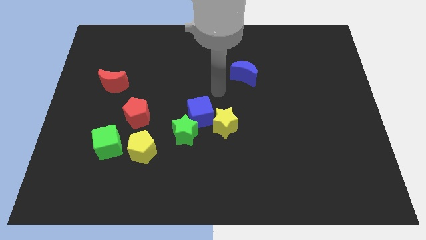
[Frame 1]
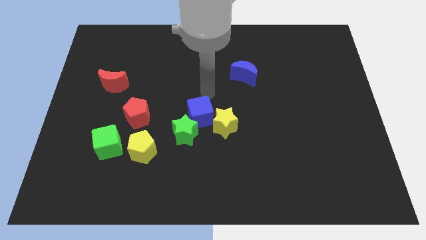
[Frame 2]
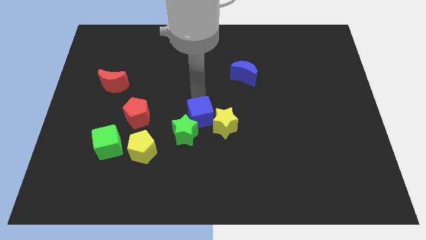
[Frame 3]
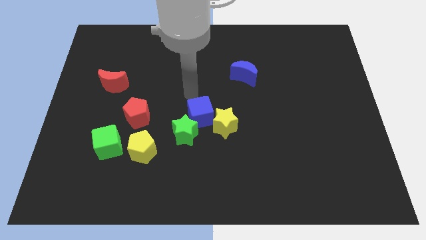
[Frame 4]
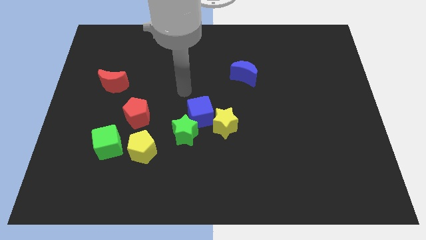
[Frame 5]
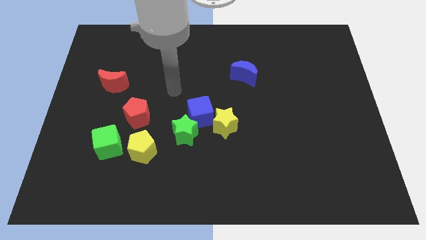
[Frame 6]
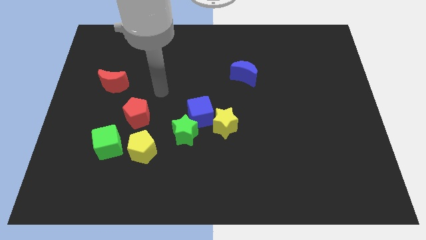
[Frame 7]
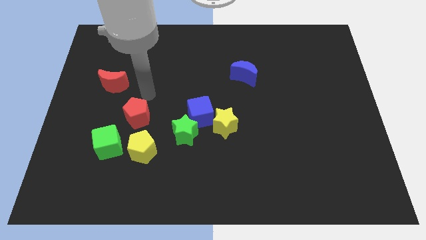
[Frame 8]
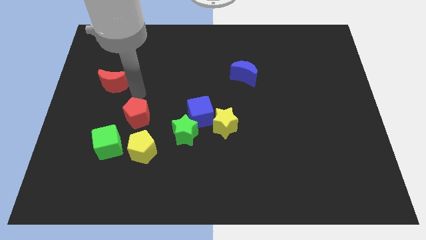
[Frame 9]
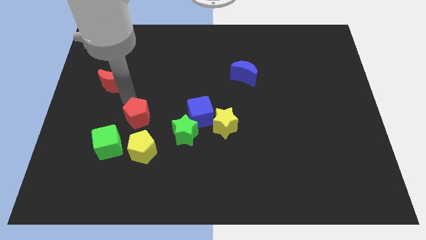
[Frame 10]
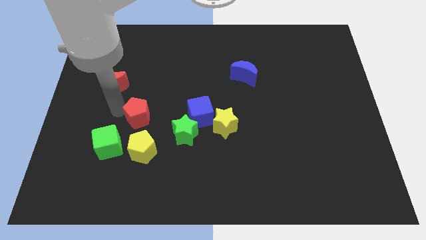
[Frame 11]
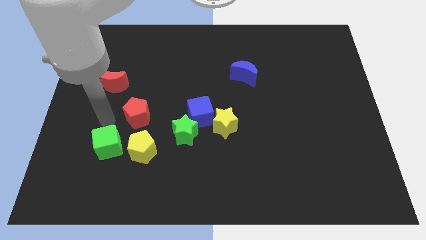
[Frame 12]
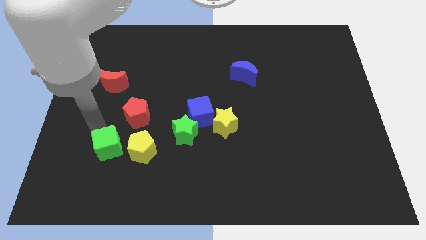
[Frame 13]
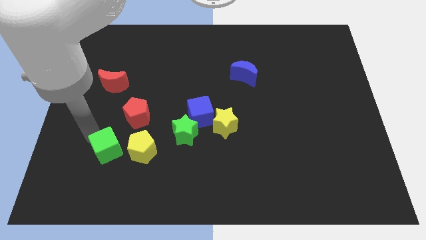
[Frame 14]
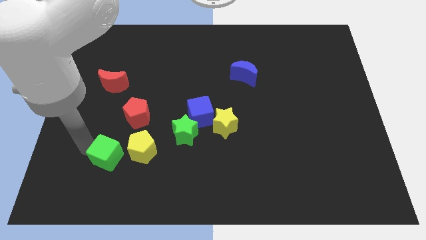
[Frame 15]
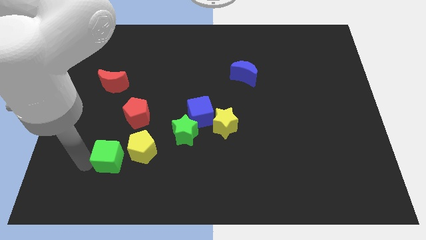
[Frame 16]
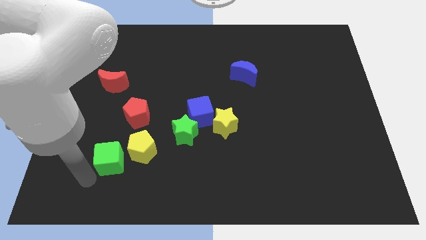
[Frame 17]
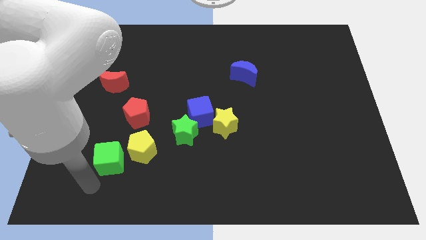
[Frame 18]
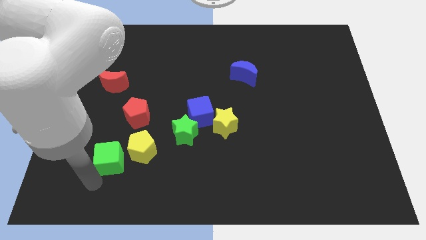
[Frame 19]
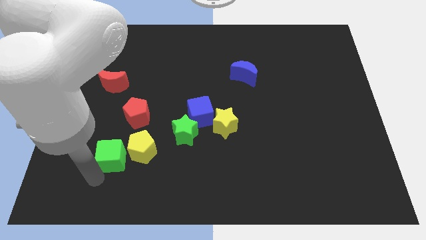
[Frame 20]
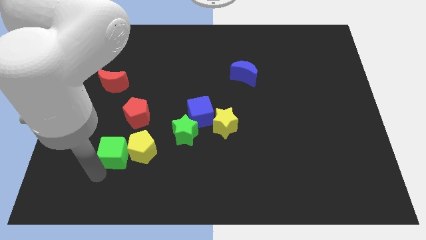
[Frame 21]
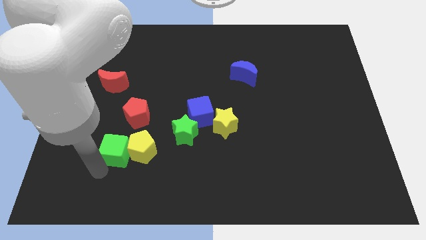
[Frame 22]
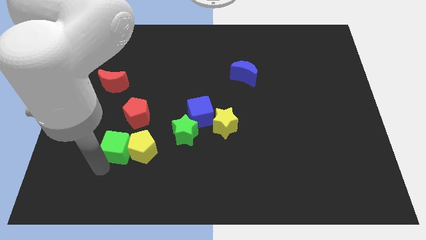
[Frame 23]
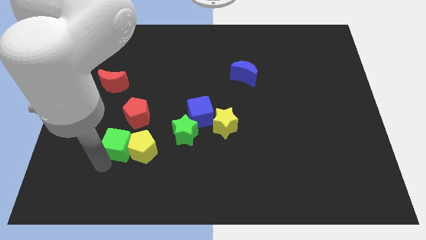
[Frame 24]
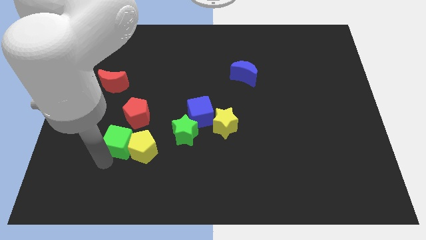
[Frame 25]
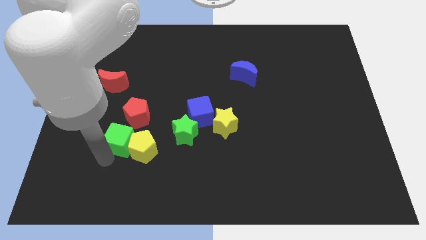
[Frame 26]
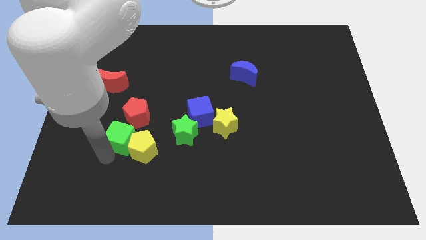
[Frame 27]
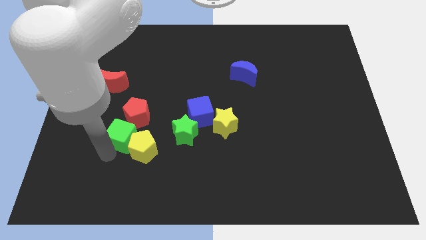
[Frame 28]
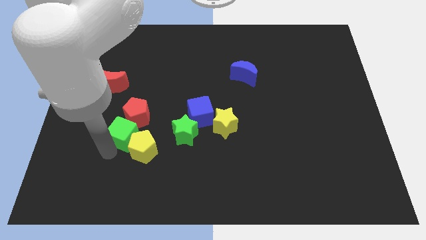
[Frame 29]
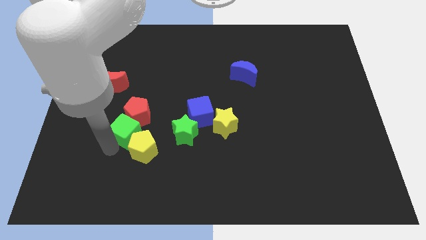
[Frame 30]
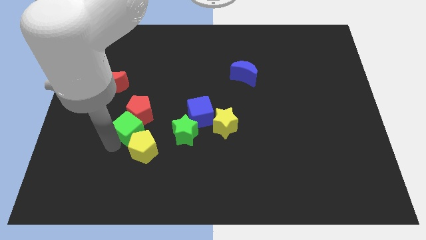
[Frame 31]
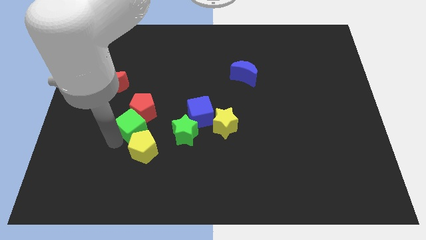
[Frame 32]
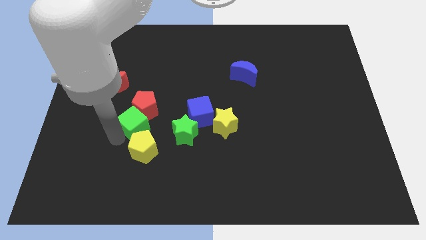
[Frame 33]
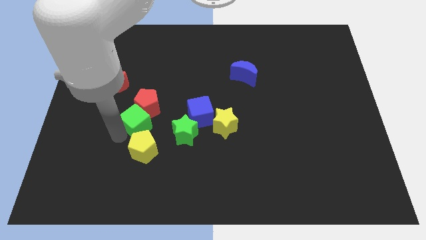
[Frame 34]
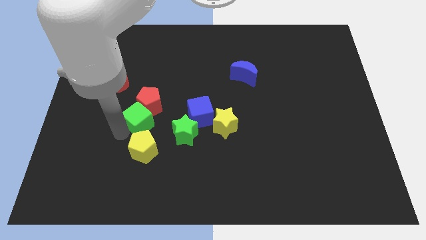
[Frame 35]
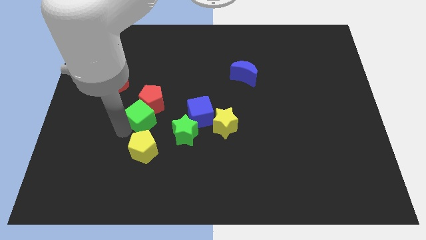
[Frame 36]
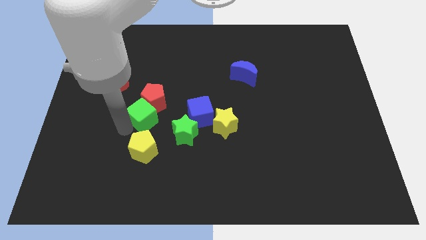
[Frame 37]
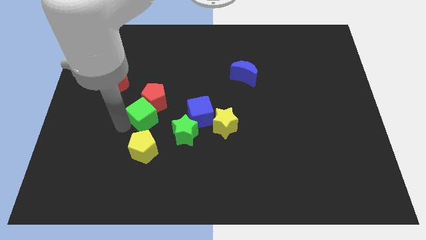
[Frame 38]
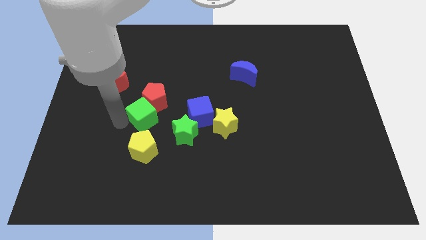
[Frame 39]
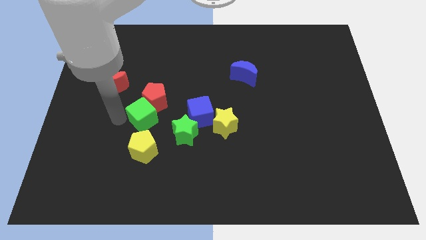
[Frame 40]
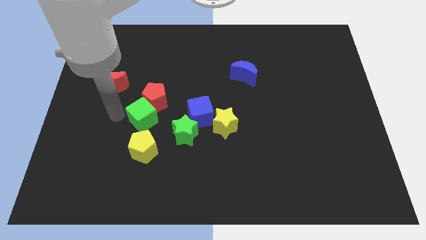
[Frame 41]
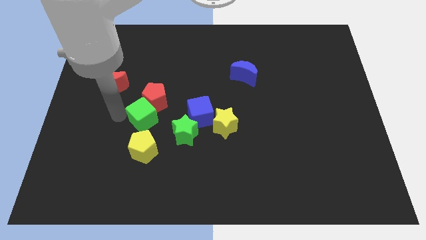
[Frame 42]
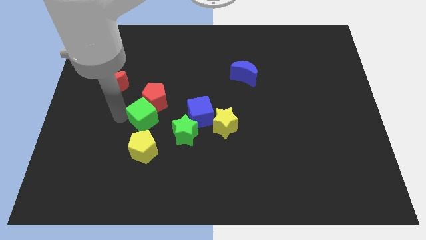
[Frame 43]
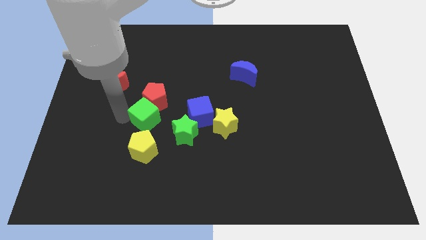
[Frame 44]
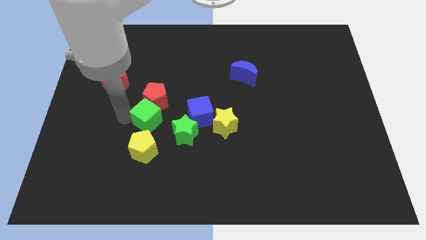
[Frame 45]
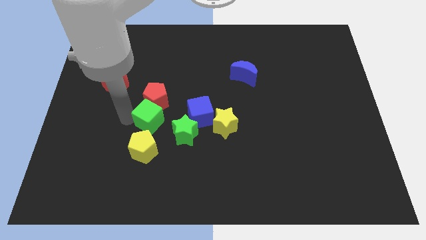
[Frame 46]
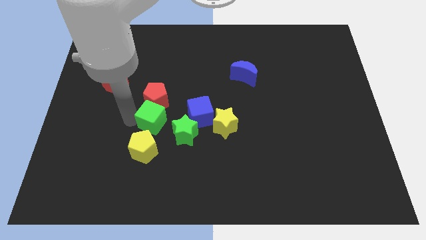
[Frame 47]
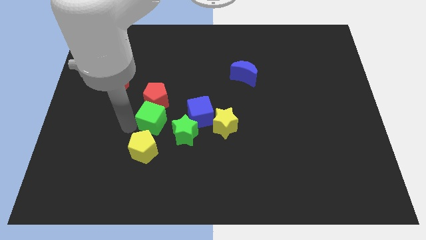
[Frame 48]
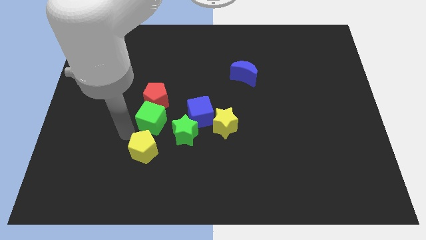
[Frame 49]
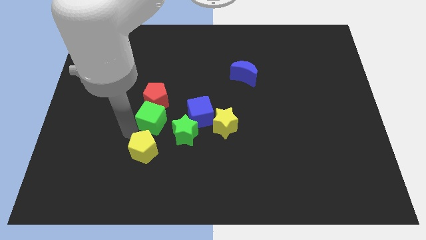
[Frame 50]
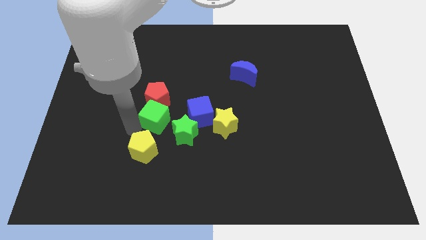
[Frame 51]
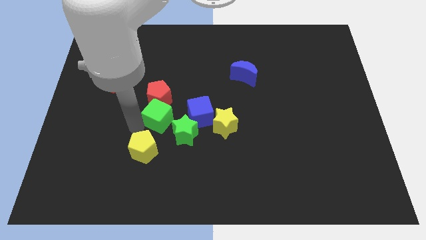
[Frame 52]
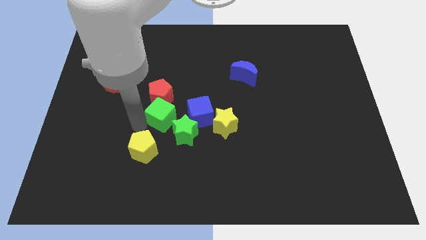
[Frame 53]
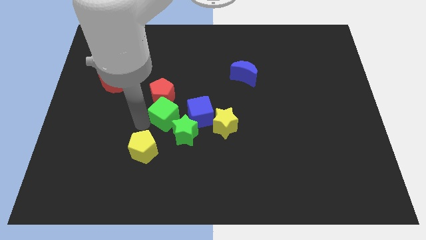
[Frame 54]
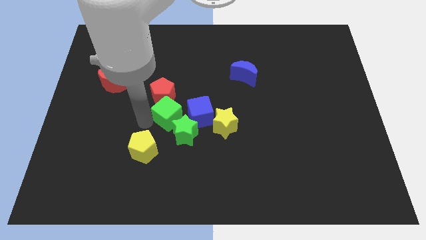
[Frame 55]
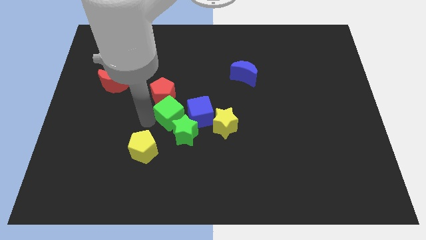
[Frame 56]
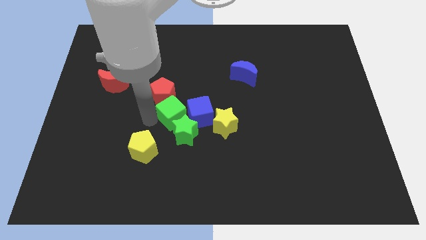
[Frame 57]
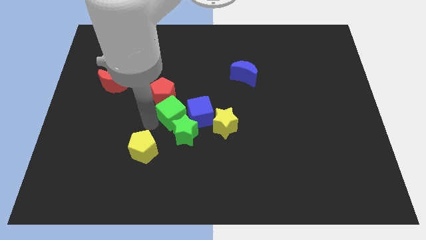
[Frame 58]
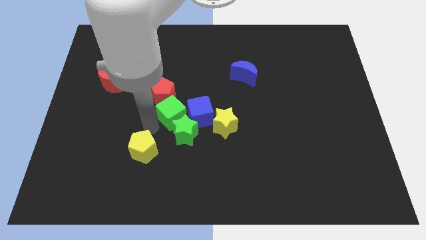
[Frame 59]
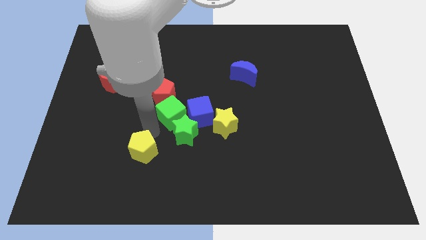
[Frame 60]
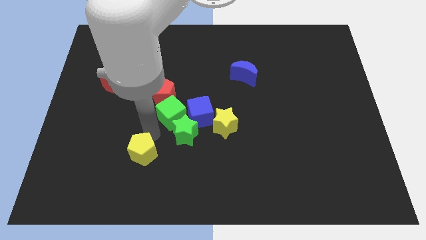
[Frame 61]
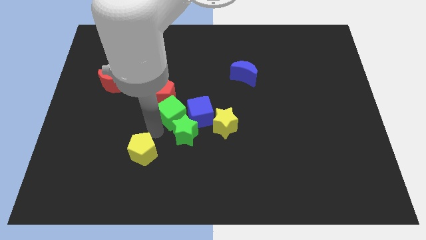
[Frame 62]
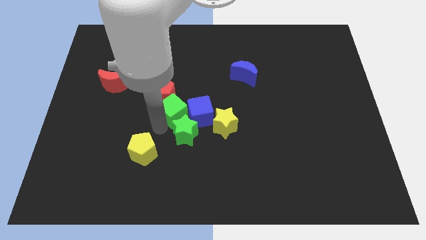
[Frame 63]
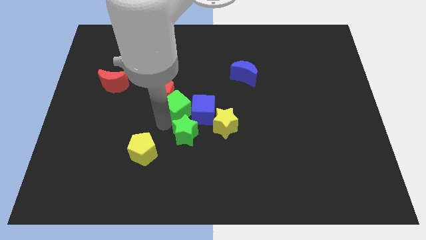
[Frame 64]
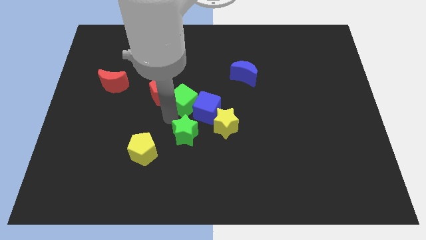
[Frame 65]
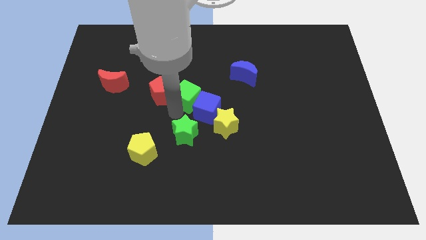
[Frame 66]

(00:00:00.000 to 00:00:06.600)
slide the green cube diagonally upwards and right

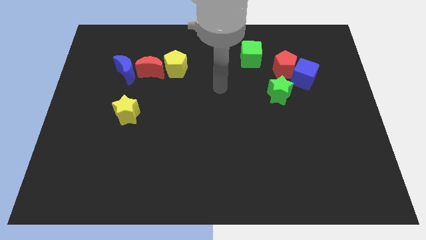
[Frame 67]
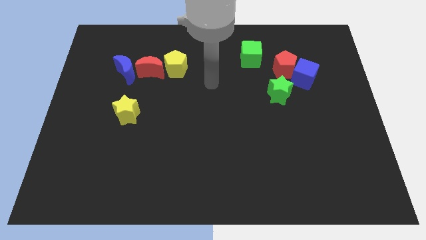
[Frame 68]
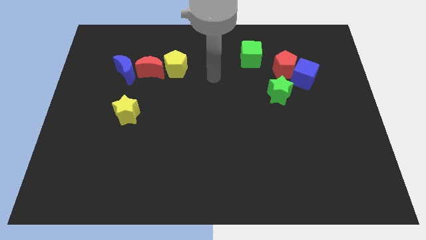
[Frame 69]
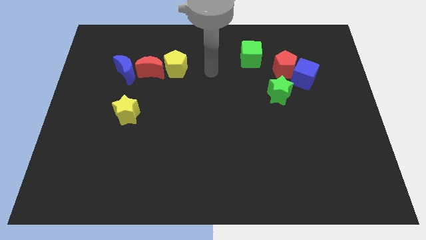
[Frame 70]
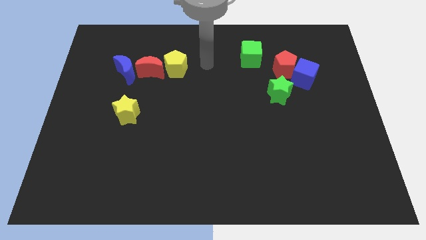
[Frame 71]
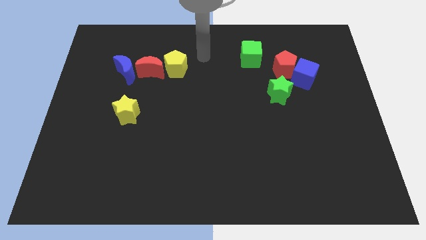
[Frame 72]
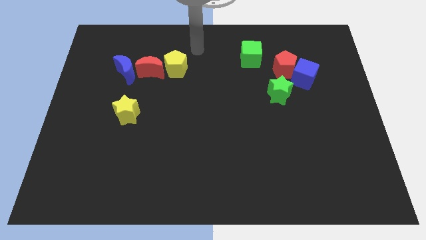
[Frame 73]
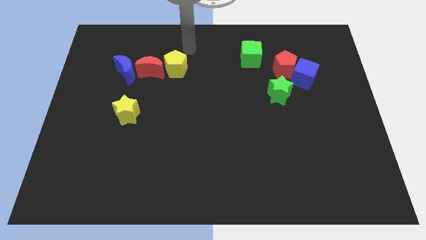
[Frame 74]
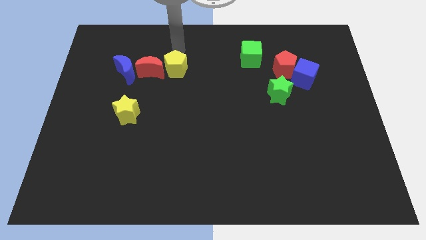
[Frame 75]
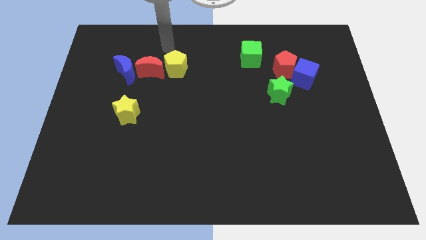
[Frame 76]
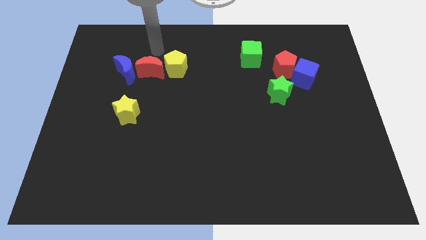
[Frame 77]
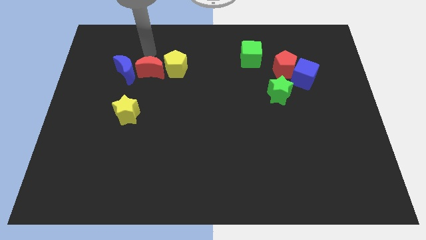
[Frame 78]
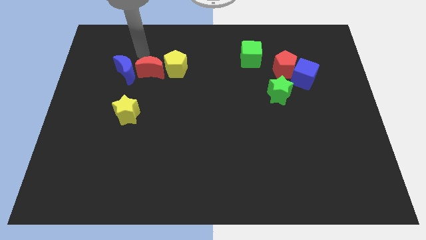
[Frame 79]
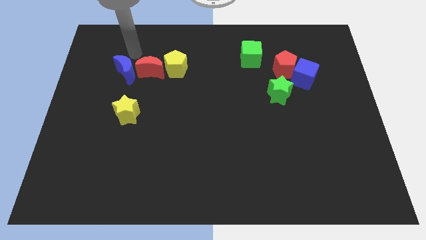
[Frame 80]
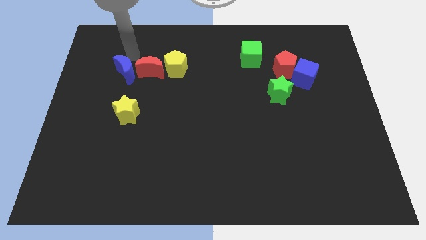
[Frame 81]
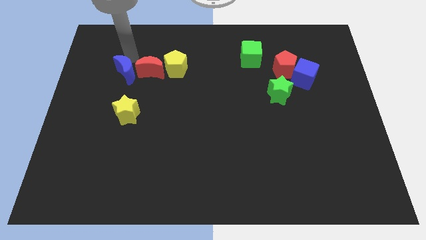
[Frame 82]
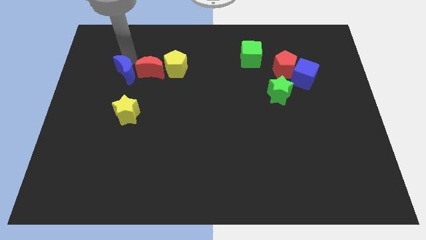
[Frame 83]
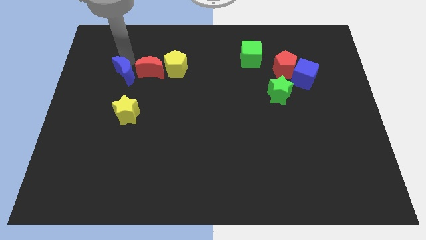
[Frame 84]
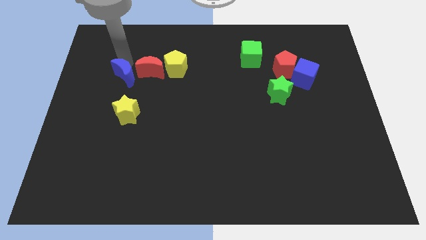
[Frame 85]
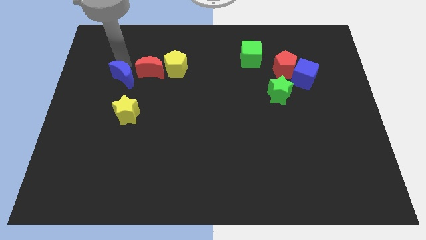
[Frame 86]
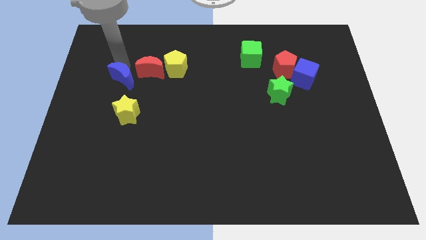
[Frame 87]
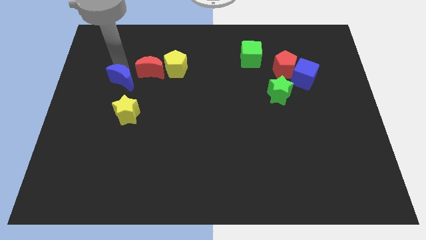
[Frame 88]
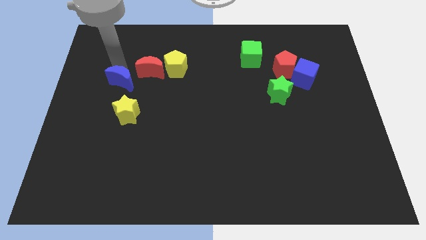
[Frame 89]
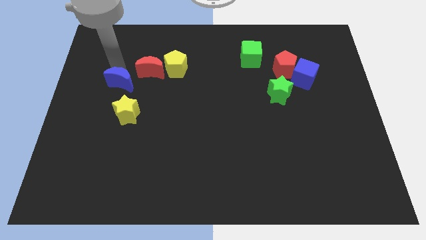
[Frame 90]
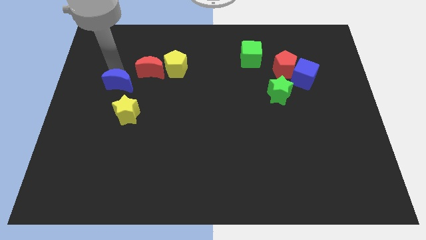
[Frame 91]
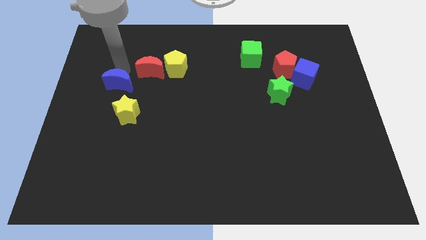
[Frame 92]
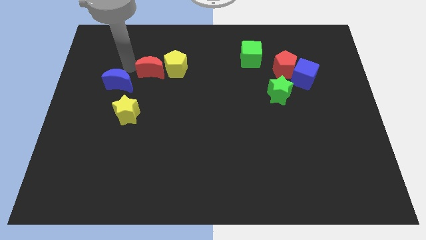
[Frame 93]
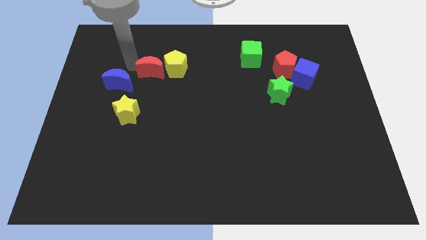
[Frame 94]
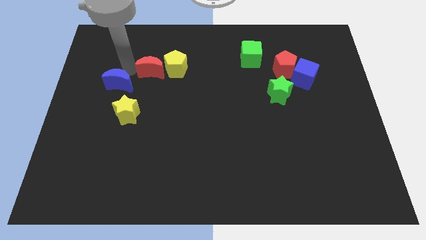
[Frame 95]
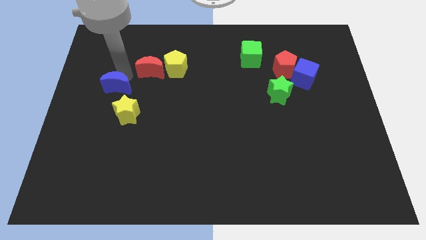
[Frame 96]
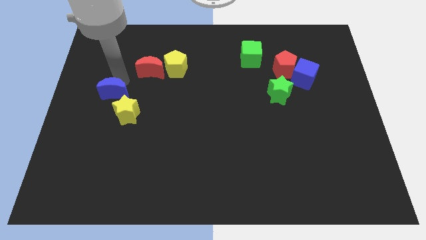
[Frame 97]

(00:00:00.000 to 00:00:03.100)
push the blue moon down slightly
